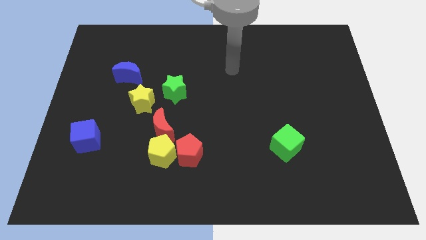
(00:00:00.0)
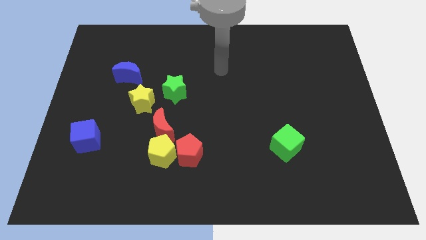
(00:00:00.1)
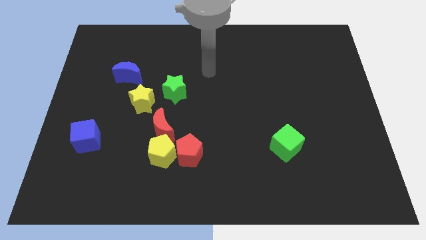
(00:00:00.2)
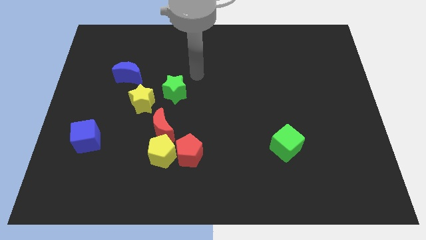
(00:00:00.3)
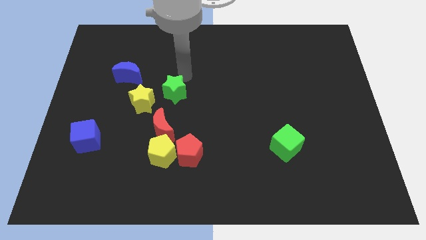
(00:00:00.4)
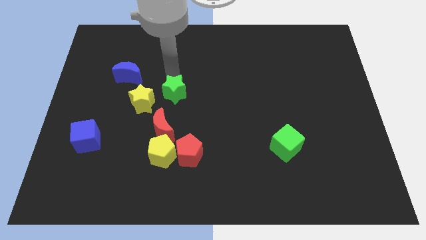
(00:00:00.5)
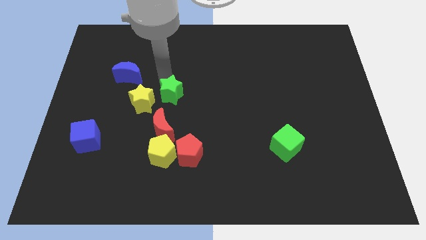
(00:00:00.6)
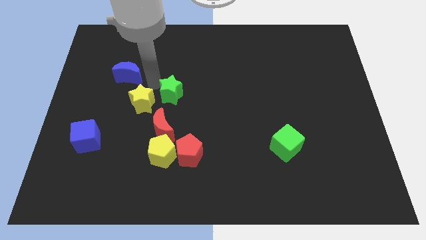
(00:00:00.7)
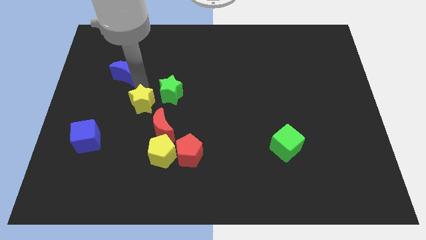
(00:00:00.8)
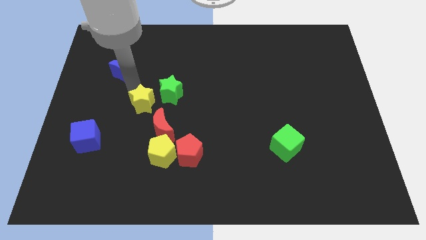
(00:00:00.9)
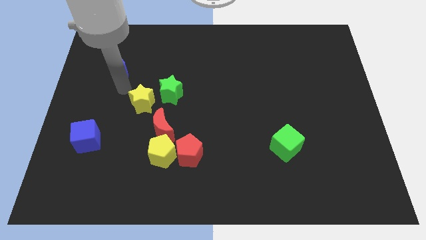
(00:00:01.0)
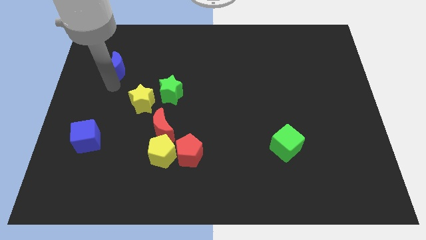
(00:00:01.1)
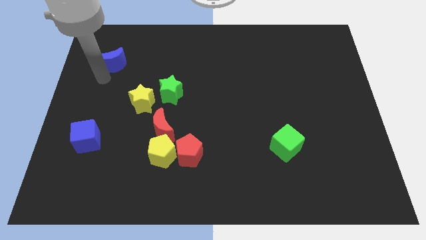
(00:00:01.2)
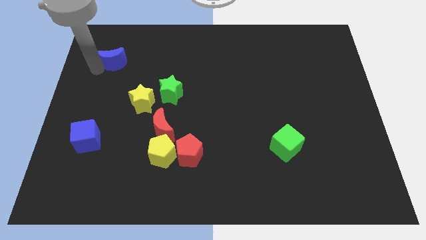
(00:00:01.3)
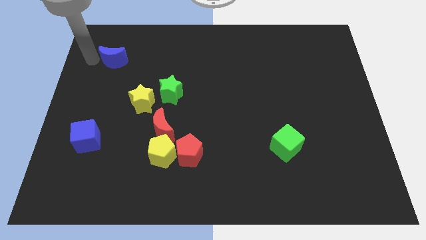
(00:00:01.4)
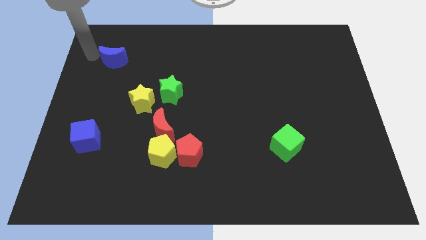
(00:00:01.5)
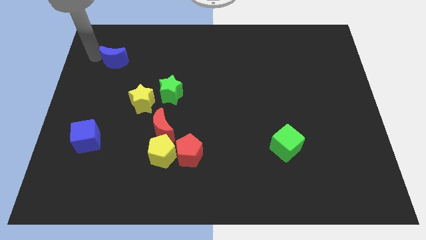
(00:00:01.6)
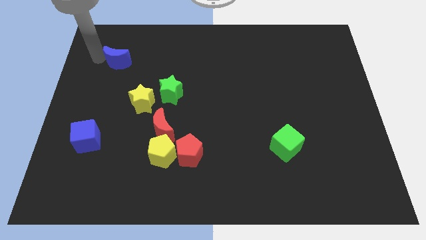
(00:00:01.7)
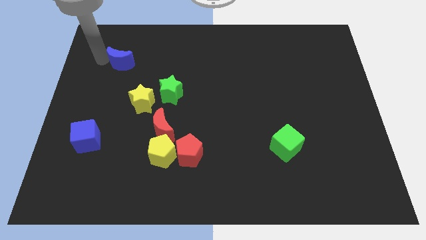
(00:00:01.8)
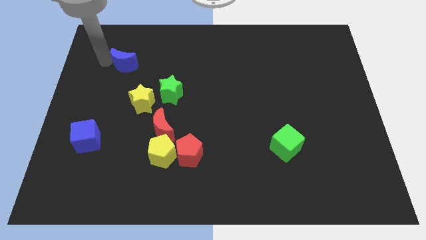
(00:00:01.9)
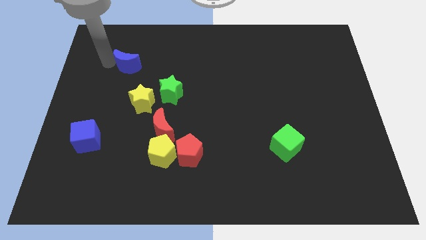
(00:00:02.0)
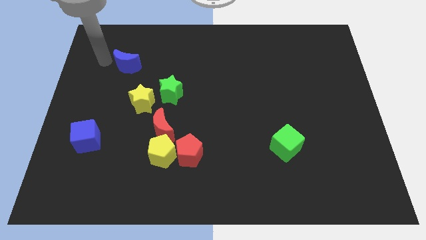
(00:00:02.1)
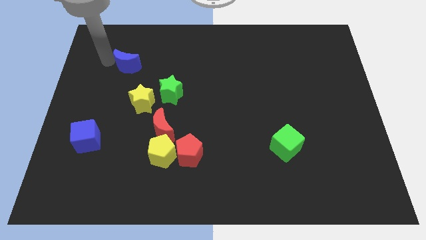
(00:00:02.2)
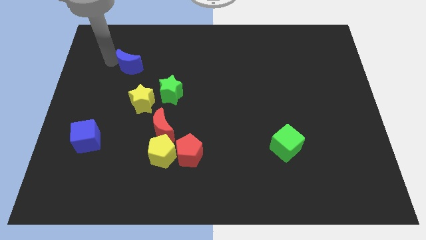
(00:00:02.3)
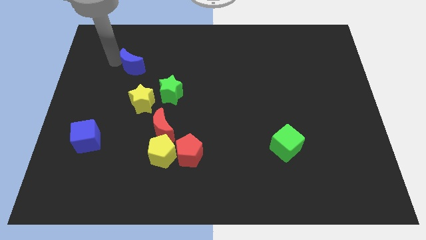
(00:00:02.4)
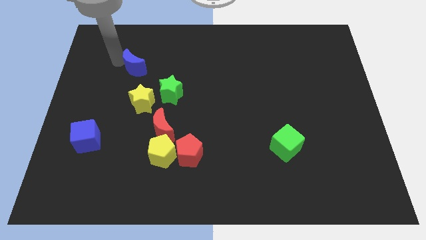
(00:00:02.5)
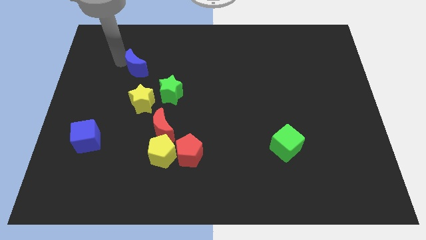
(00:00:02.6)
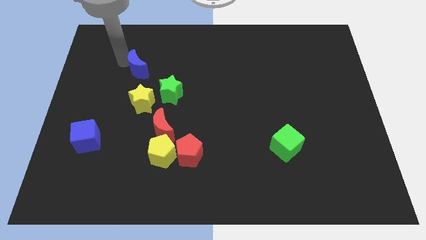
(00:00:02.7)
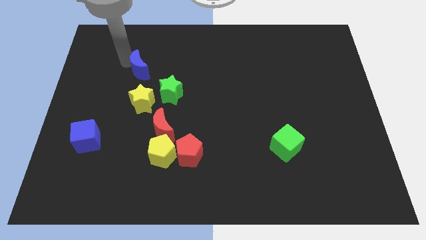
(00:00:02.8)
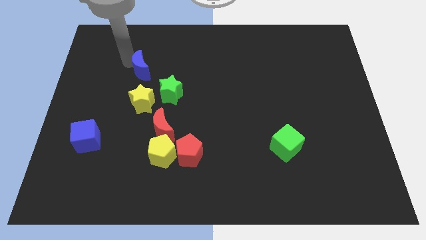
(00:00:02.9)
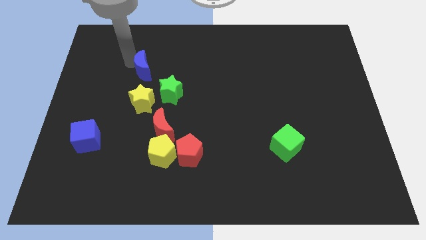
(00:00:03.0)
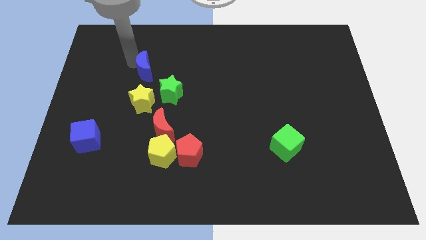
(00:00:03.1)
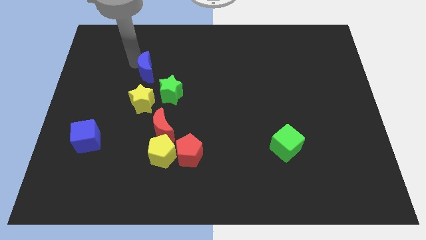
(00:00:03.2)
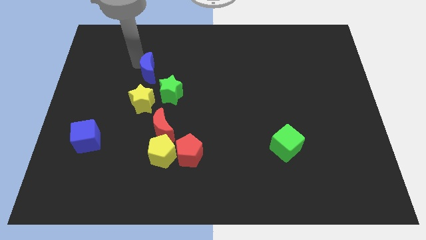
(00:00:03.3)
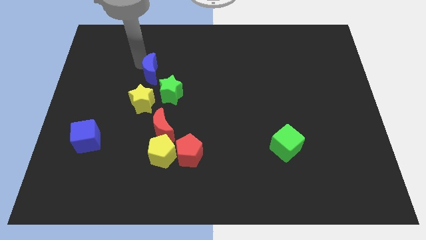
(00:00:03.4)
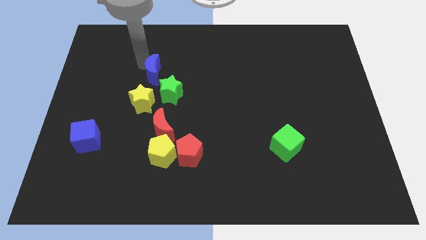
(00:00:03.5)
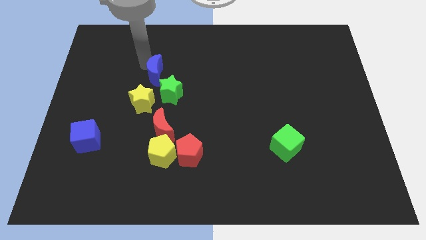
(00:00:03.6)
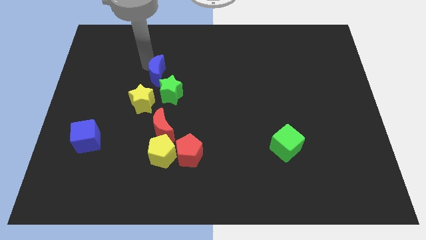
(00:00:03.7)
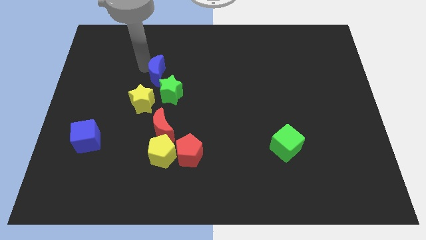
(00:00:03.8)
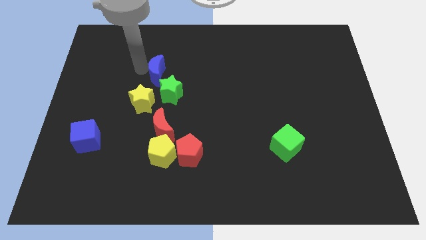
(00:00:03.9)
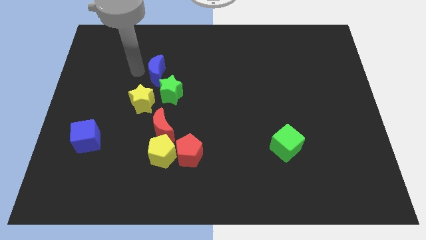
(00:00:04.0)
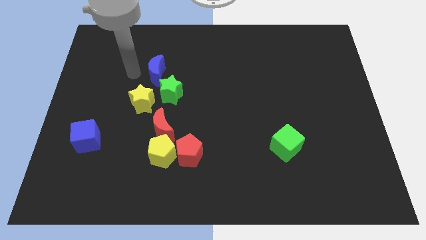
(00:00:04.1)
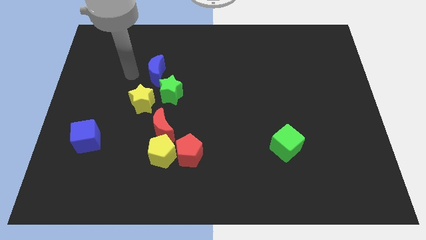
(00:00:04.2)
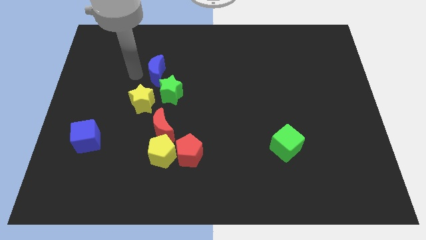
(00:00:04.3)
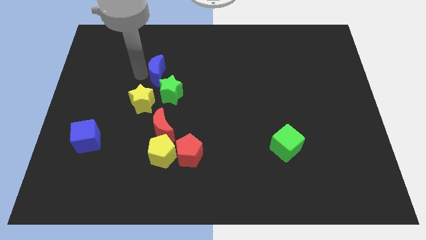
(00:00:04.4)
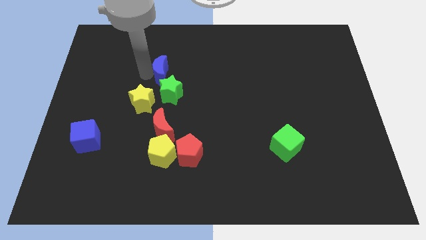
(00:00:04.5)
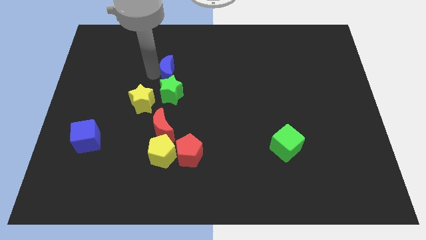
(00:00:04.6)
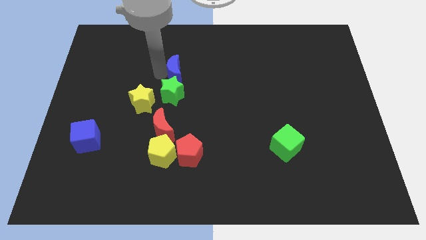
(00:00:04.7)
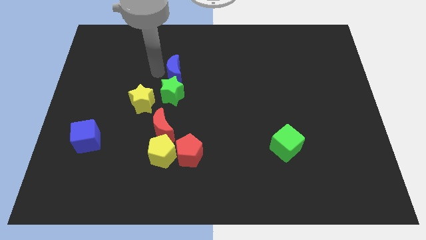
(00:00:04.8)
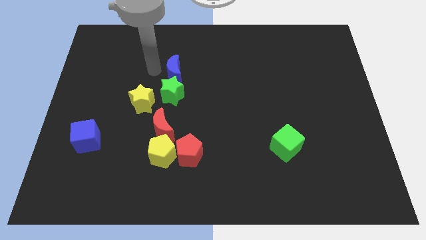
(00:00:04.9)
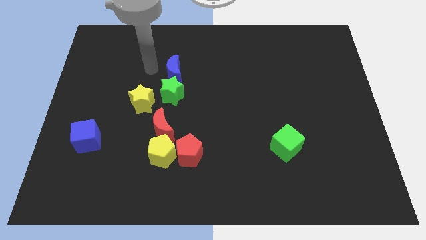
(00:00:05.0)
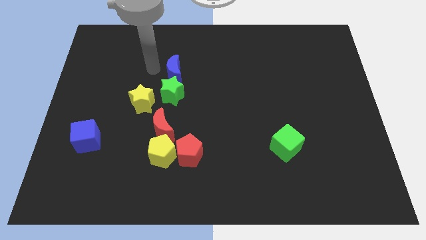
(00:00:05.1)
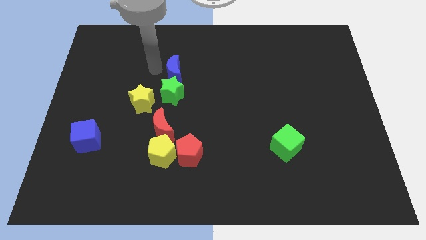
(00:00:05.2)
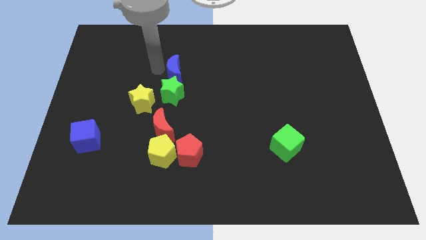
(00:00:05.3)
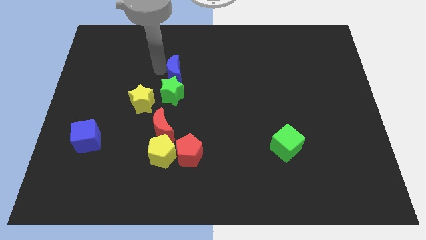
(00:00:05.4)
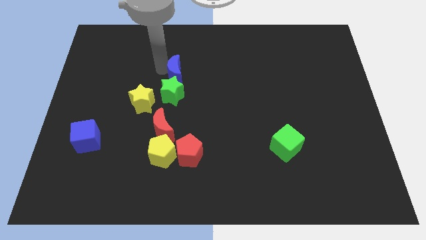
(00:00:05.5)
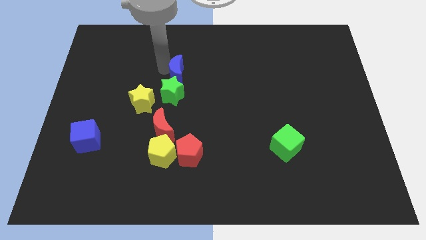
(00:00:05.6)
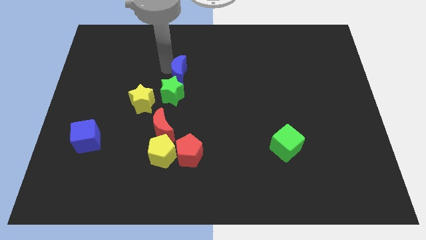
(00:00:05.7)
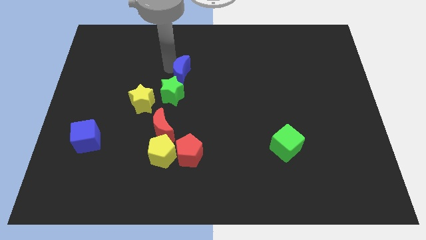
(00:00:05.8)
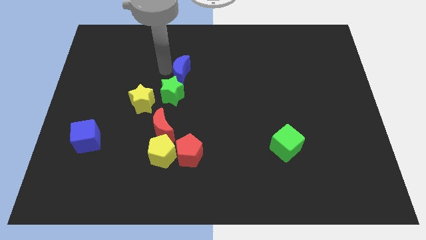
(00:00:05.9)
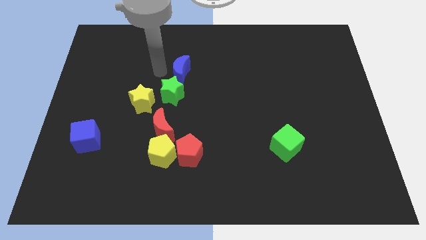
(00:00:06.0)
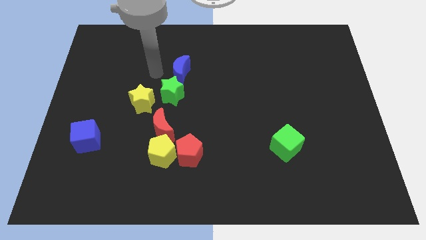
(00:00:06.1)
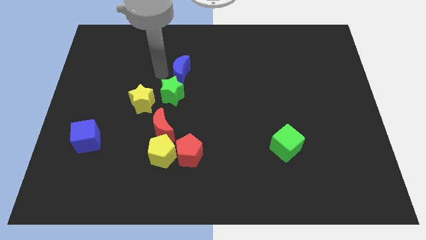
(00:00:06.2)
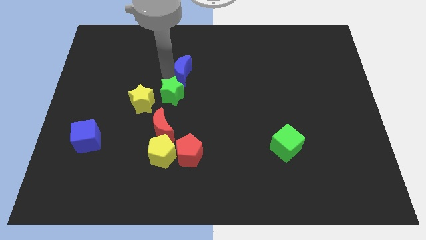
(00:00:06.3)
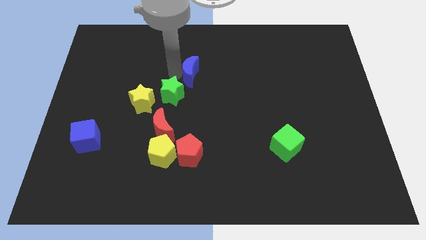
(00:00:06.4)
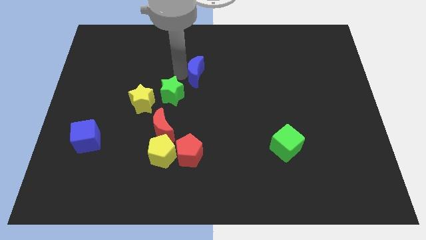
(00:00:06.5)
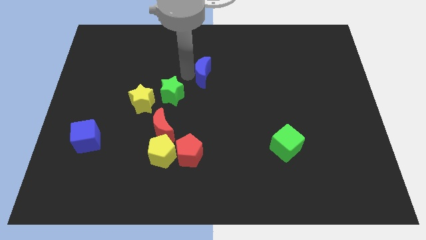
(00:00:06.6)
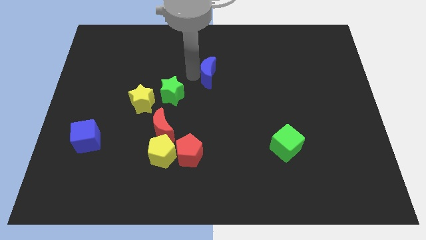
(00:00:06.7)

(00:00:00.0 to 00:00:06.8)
push the blue moon to the right

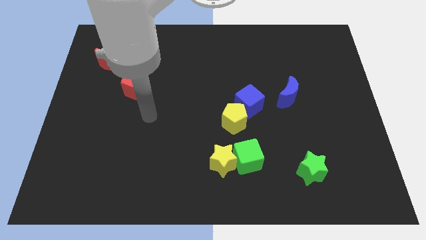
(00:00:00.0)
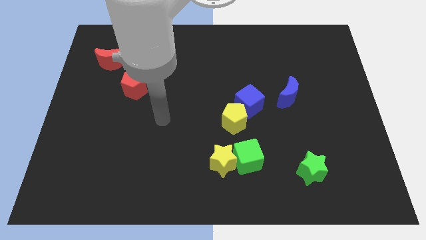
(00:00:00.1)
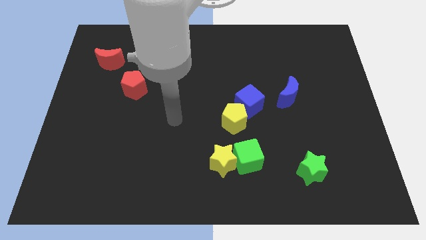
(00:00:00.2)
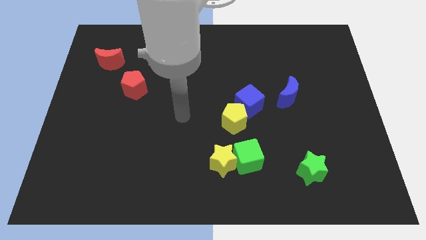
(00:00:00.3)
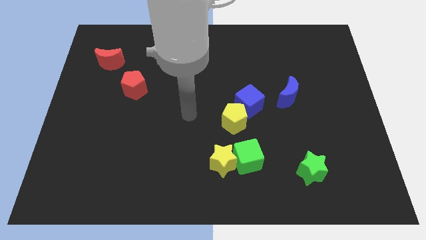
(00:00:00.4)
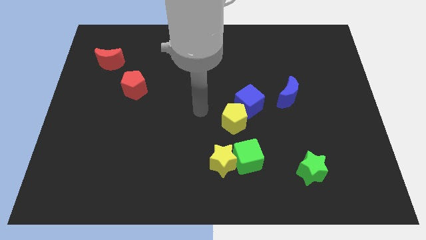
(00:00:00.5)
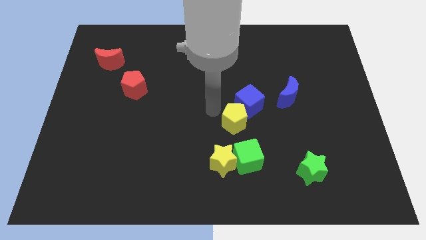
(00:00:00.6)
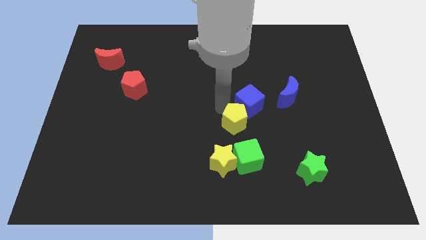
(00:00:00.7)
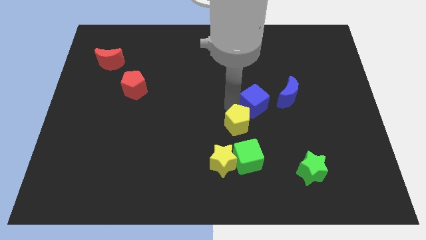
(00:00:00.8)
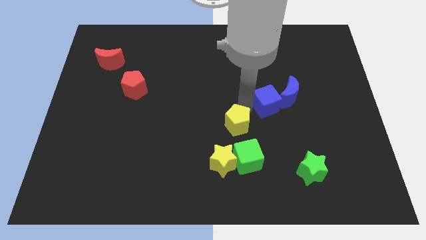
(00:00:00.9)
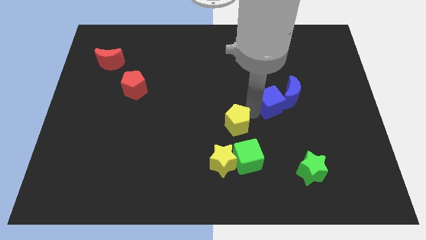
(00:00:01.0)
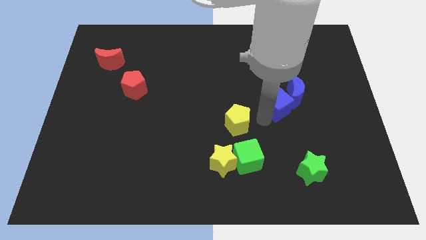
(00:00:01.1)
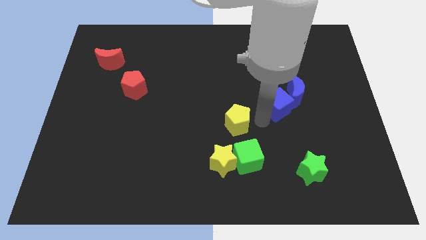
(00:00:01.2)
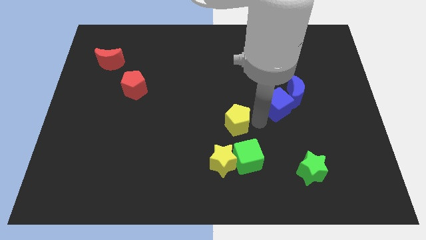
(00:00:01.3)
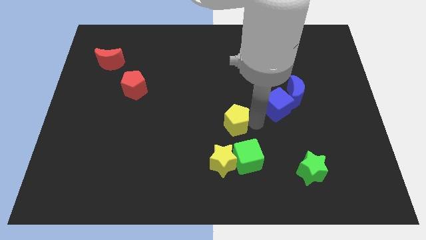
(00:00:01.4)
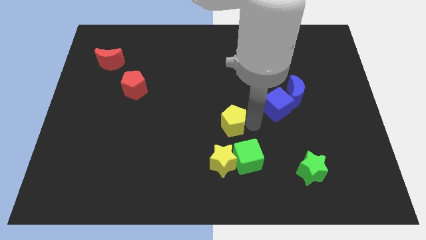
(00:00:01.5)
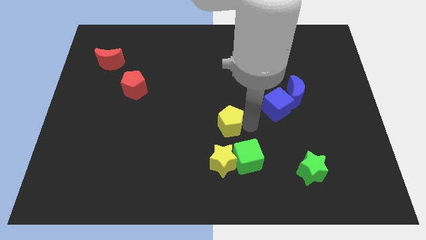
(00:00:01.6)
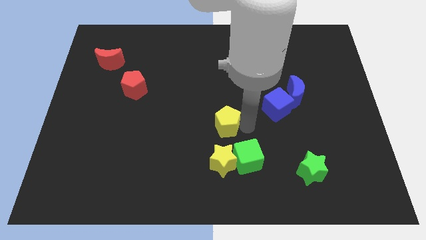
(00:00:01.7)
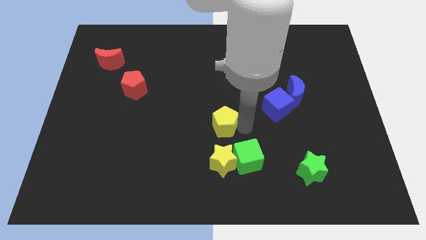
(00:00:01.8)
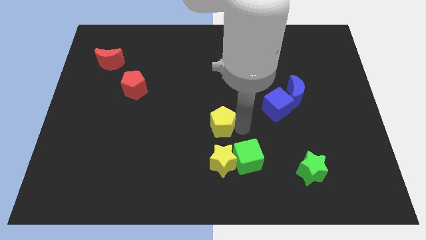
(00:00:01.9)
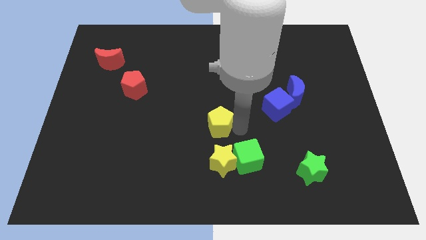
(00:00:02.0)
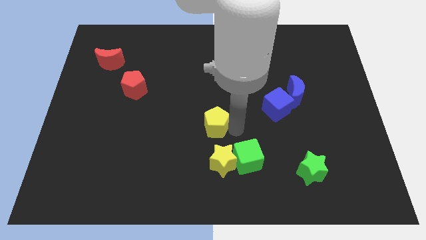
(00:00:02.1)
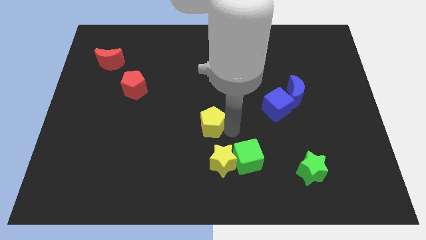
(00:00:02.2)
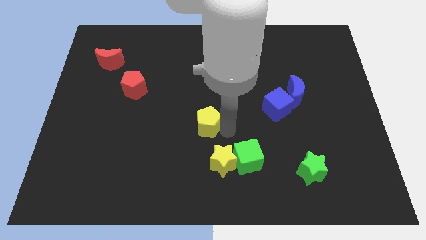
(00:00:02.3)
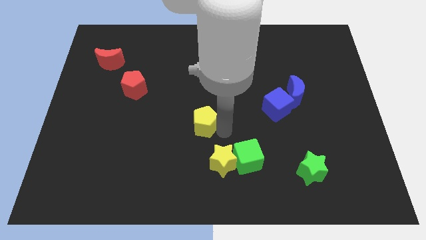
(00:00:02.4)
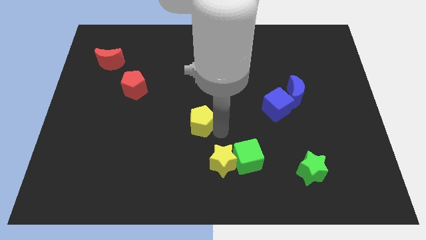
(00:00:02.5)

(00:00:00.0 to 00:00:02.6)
move the yellow pentagon somewhat left
